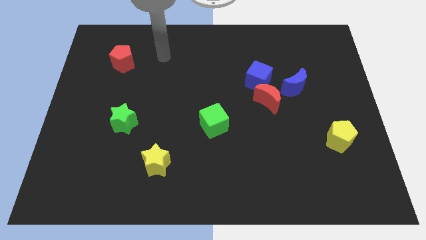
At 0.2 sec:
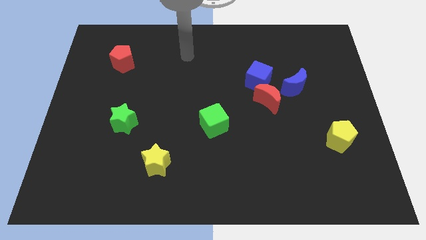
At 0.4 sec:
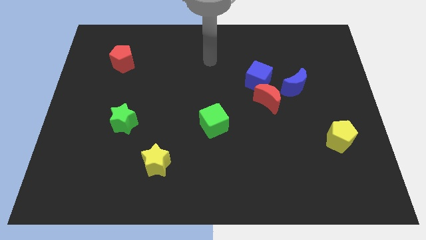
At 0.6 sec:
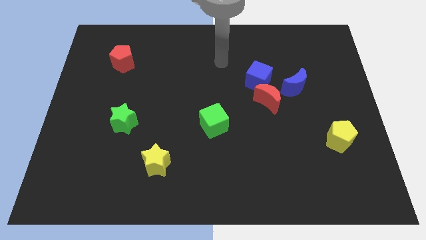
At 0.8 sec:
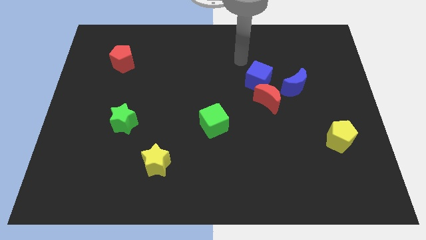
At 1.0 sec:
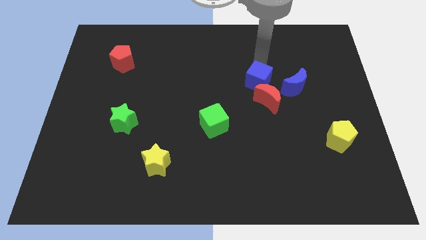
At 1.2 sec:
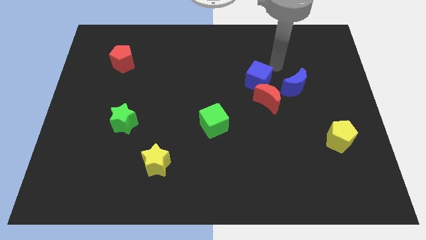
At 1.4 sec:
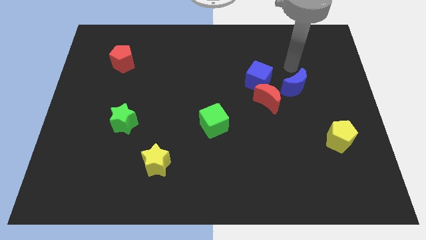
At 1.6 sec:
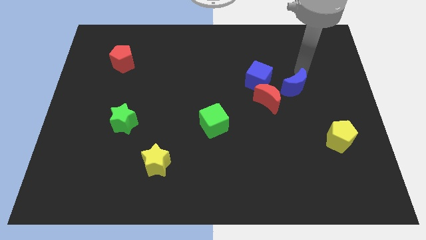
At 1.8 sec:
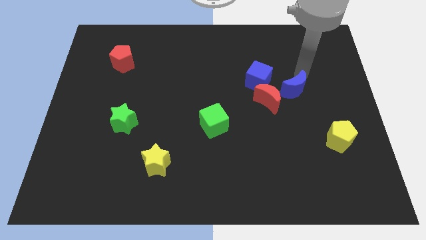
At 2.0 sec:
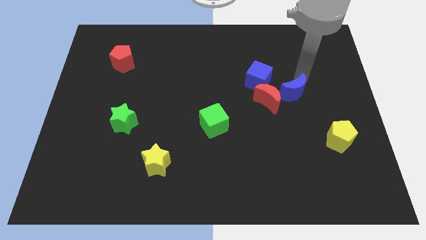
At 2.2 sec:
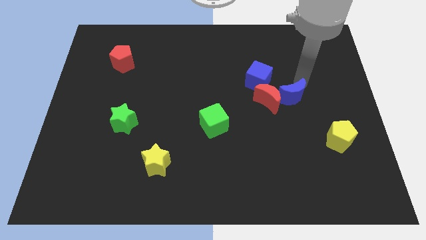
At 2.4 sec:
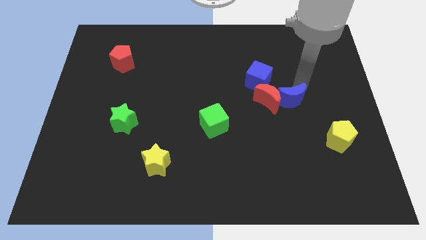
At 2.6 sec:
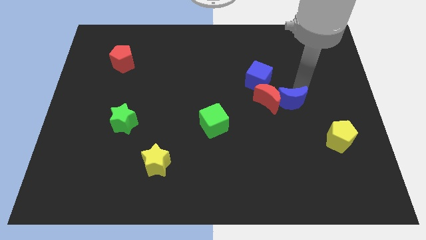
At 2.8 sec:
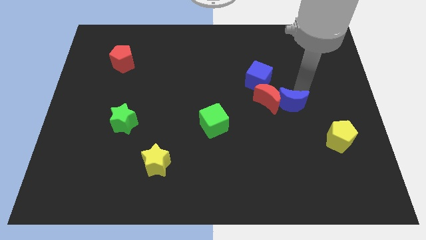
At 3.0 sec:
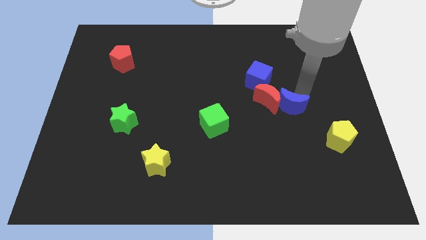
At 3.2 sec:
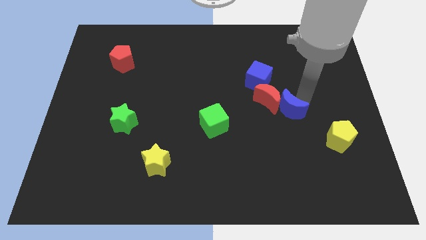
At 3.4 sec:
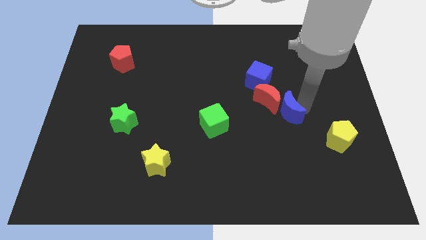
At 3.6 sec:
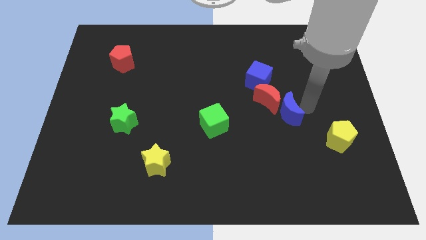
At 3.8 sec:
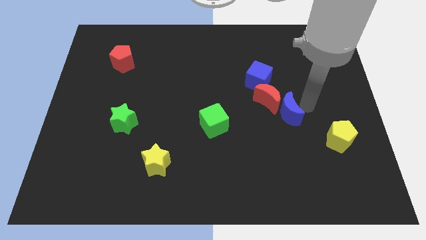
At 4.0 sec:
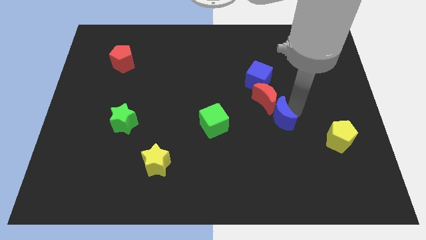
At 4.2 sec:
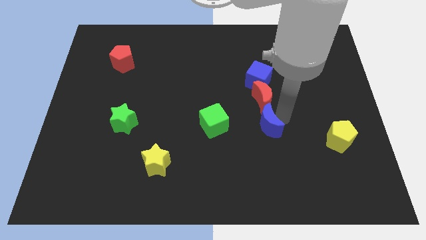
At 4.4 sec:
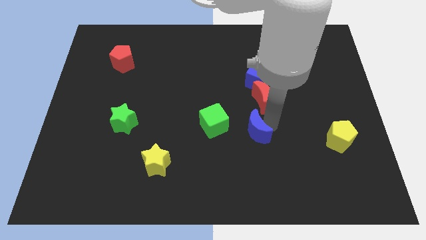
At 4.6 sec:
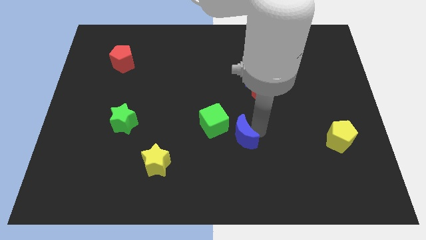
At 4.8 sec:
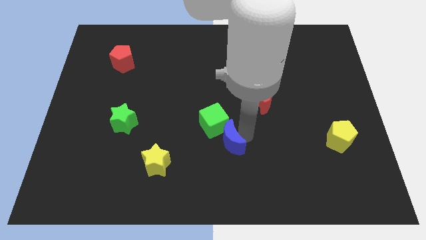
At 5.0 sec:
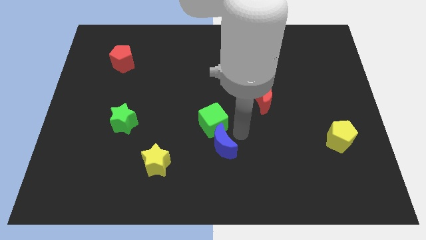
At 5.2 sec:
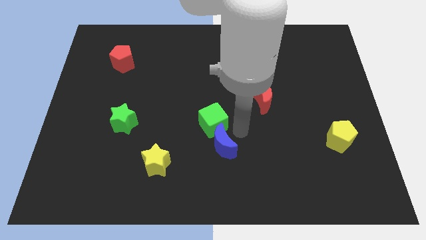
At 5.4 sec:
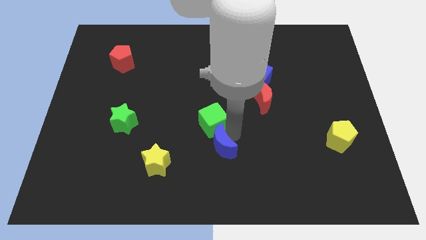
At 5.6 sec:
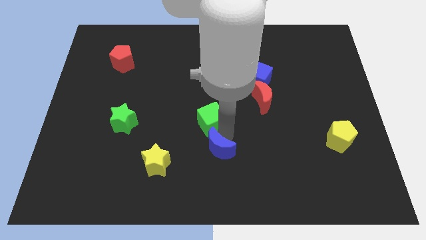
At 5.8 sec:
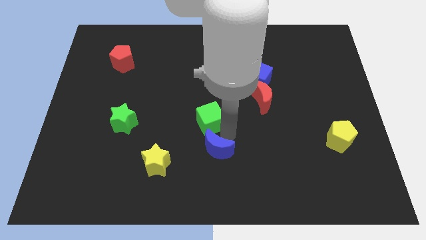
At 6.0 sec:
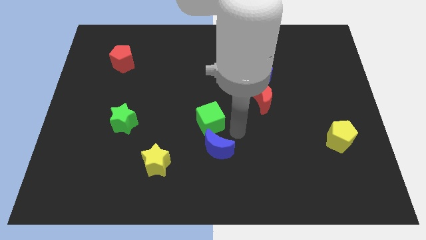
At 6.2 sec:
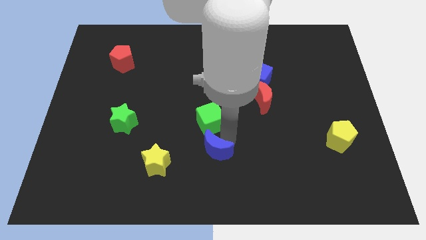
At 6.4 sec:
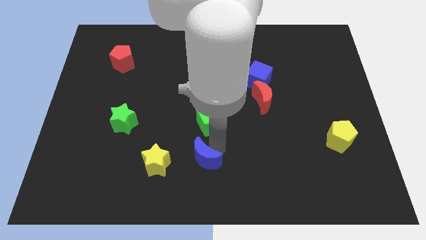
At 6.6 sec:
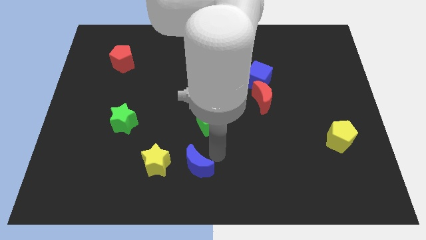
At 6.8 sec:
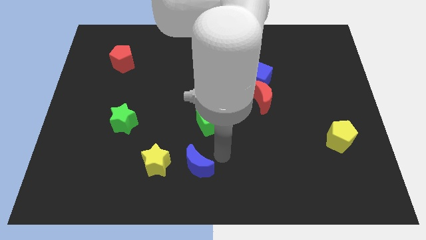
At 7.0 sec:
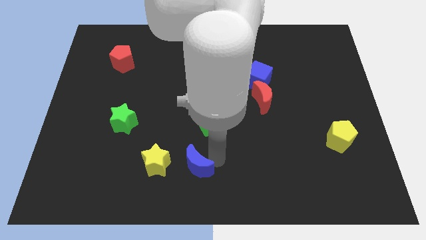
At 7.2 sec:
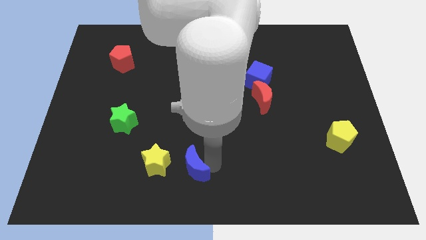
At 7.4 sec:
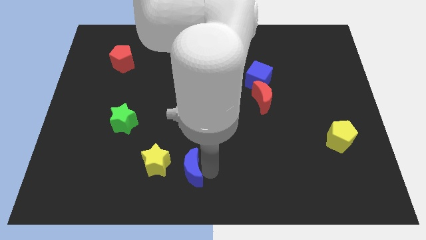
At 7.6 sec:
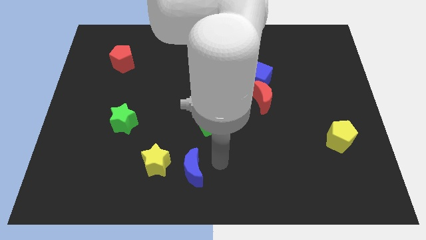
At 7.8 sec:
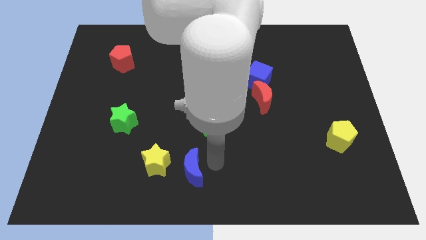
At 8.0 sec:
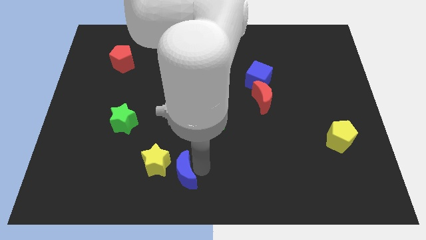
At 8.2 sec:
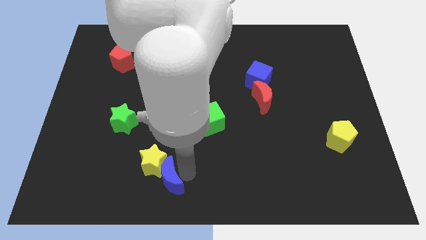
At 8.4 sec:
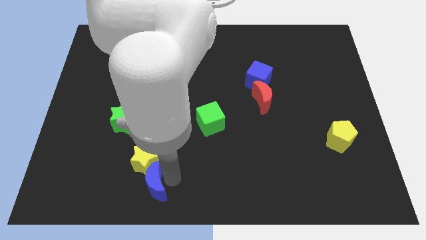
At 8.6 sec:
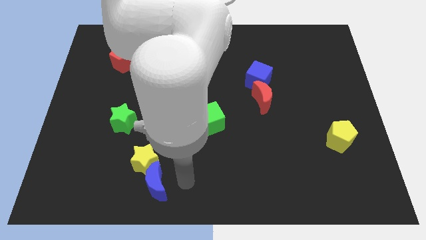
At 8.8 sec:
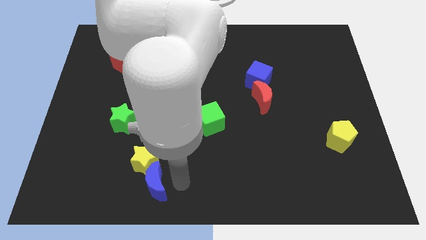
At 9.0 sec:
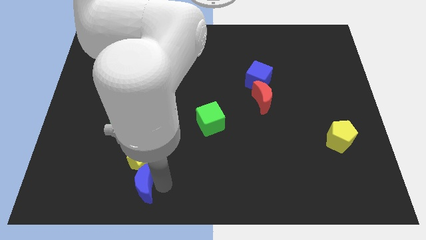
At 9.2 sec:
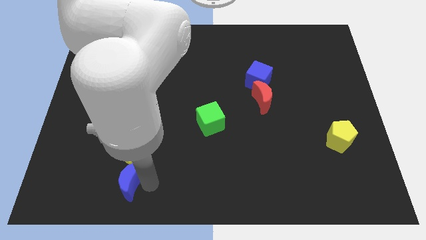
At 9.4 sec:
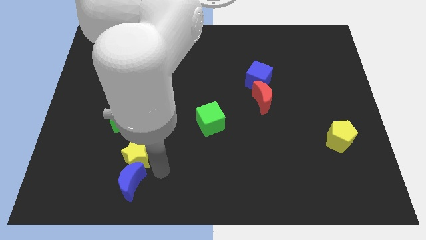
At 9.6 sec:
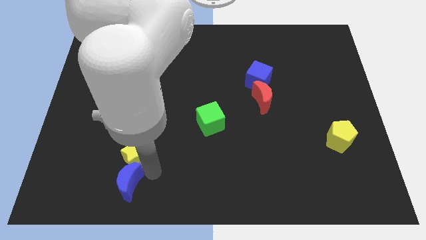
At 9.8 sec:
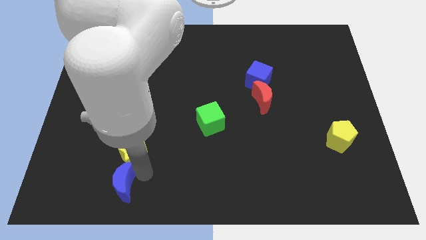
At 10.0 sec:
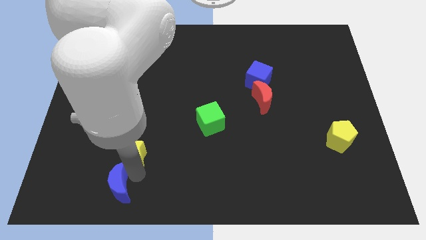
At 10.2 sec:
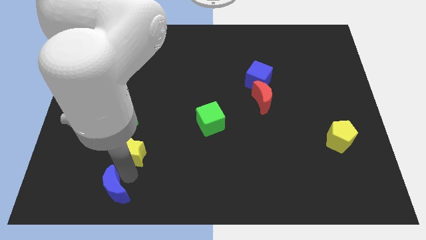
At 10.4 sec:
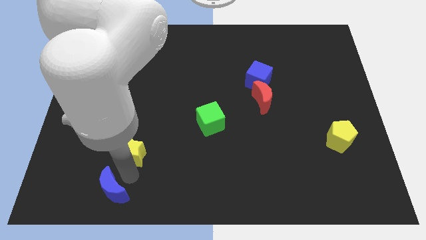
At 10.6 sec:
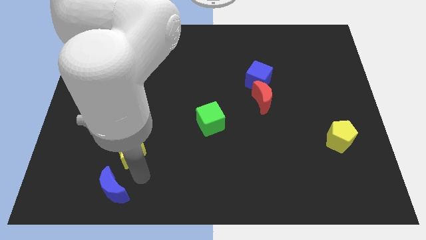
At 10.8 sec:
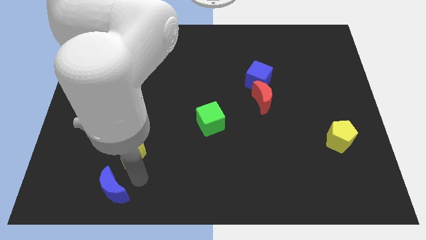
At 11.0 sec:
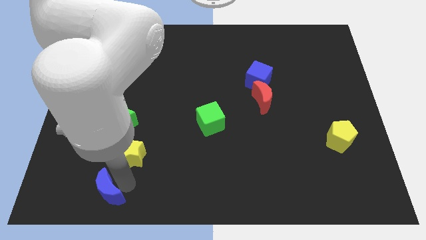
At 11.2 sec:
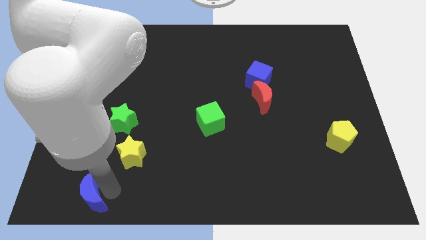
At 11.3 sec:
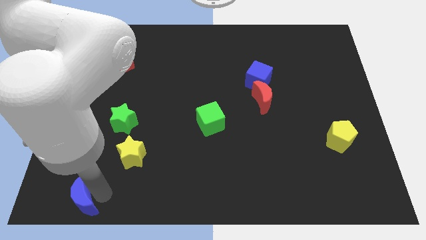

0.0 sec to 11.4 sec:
move the blue moon to the bottom left

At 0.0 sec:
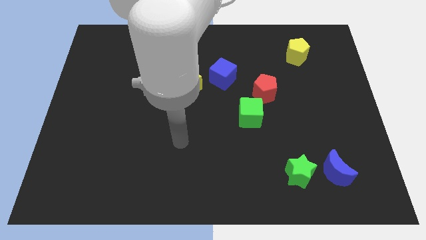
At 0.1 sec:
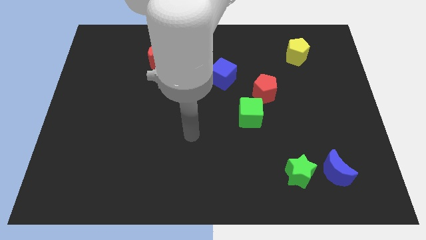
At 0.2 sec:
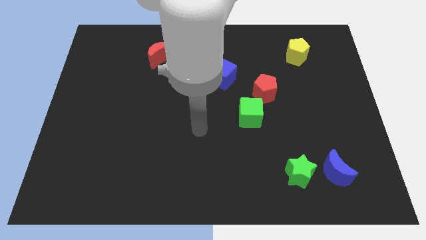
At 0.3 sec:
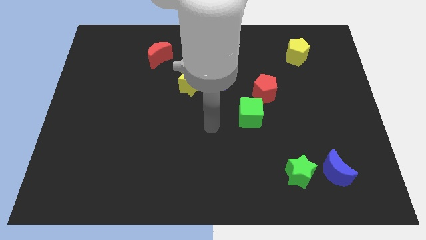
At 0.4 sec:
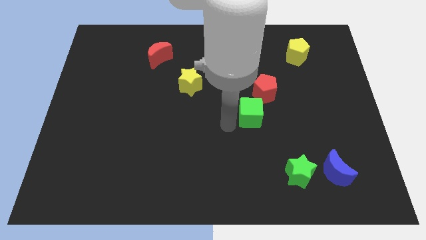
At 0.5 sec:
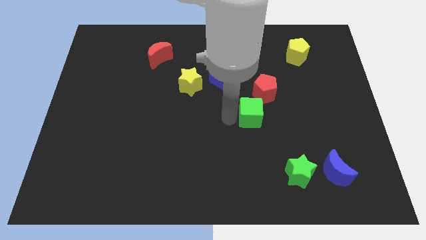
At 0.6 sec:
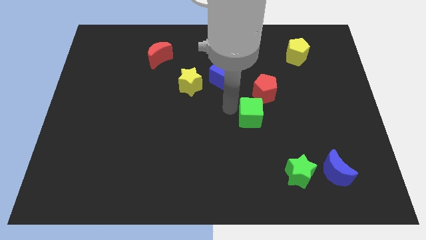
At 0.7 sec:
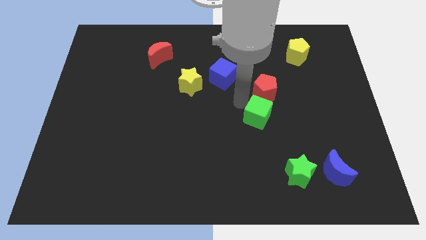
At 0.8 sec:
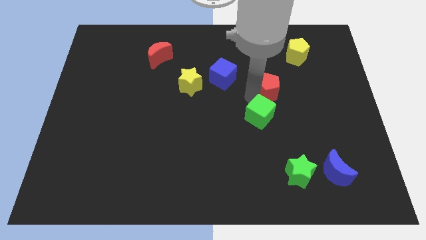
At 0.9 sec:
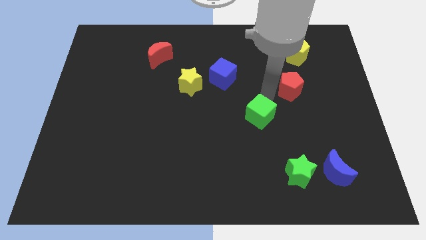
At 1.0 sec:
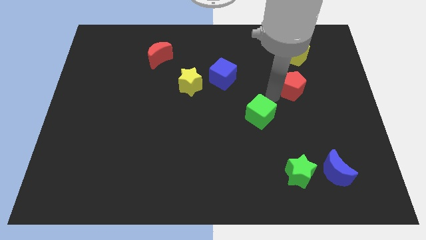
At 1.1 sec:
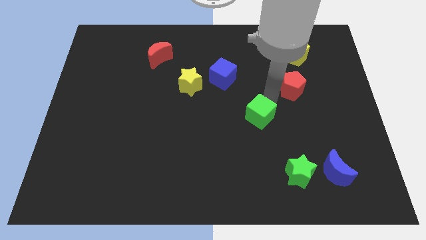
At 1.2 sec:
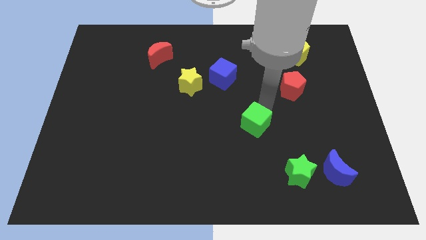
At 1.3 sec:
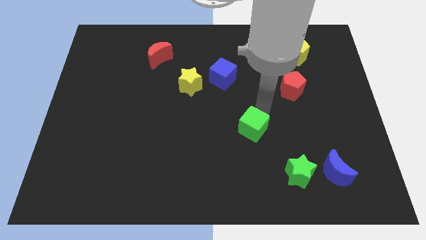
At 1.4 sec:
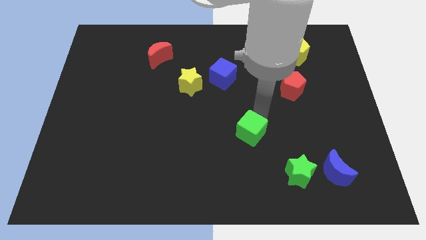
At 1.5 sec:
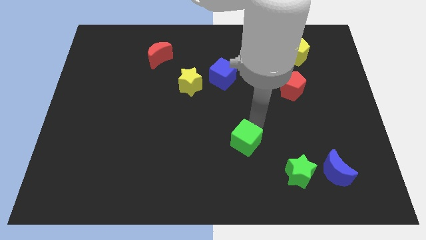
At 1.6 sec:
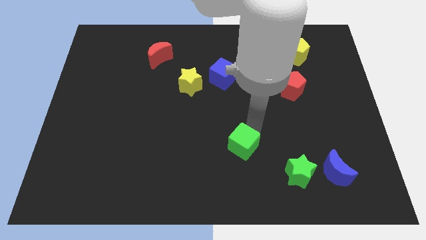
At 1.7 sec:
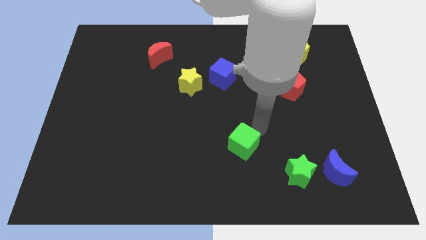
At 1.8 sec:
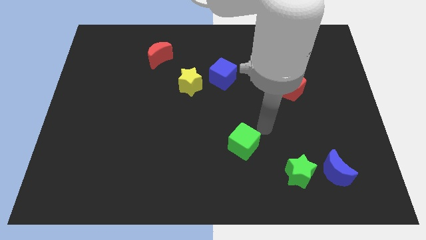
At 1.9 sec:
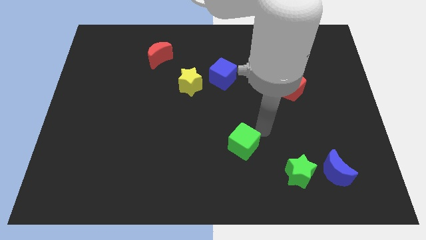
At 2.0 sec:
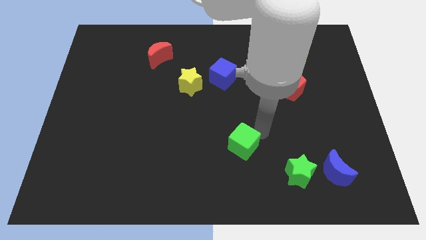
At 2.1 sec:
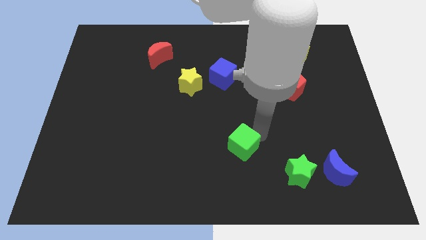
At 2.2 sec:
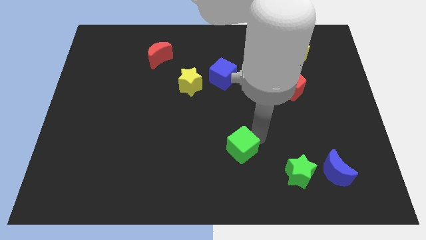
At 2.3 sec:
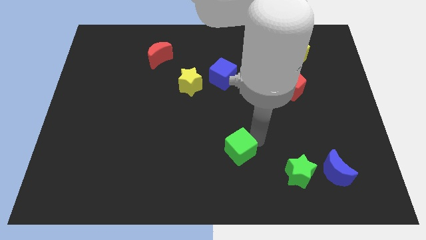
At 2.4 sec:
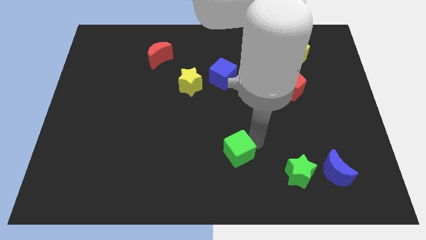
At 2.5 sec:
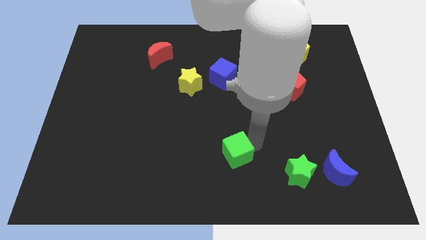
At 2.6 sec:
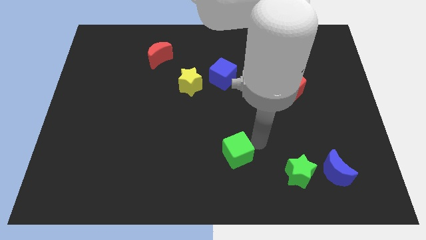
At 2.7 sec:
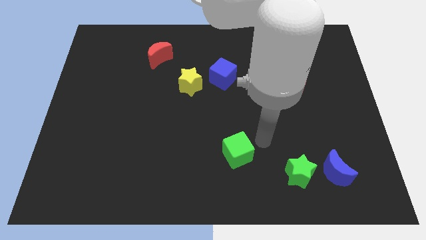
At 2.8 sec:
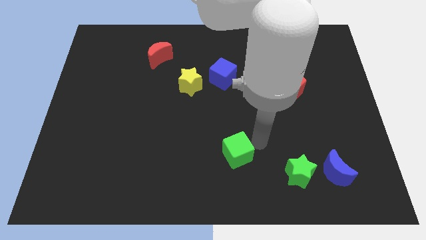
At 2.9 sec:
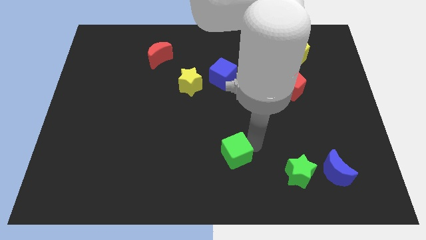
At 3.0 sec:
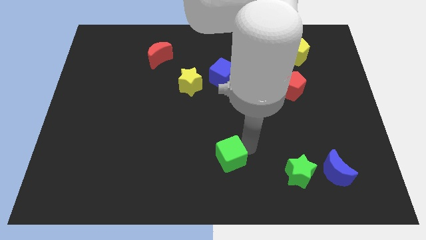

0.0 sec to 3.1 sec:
put the green cube to the bottom side
